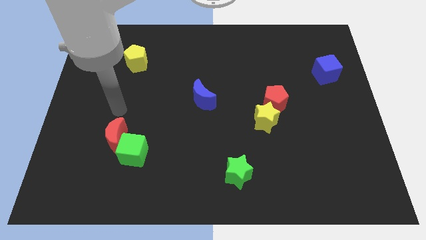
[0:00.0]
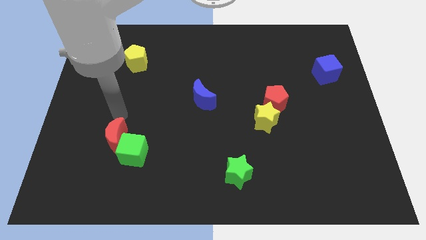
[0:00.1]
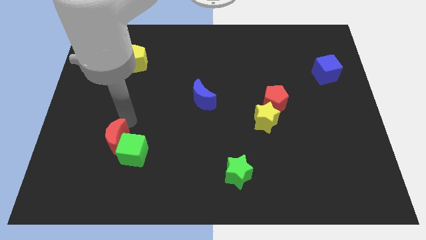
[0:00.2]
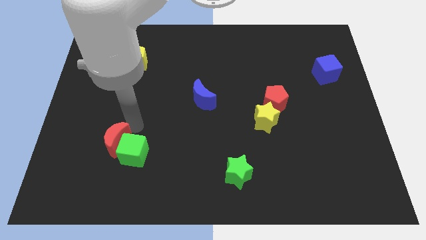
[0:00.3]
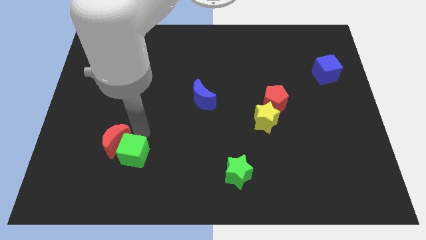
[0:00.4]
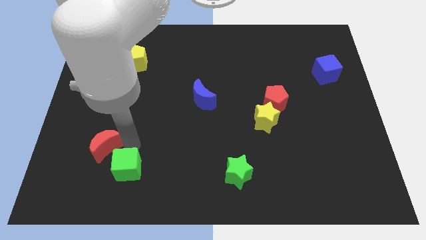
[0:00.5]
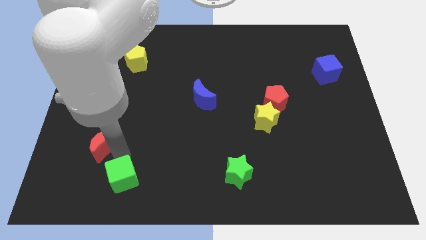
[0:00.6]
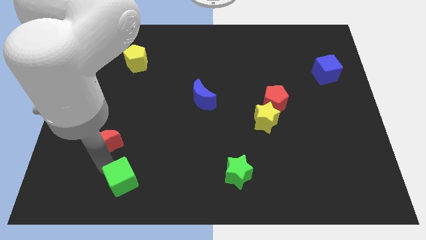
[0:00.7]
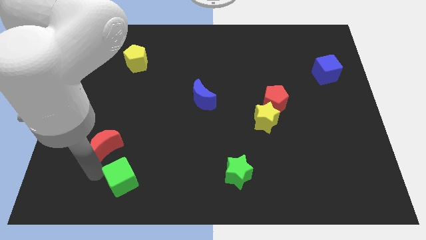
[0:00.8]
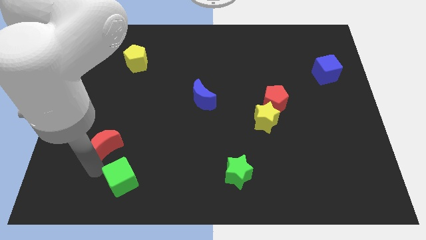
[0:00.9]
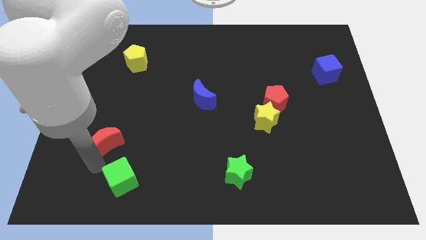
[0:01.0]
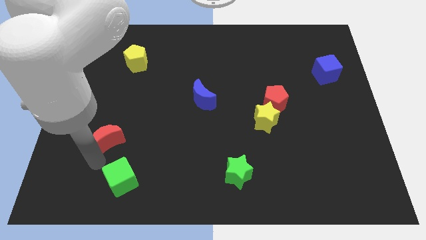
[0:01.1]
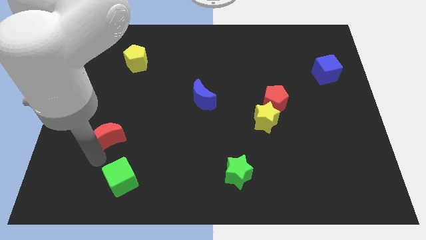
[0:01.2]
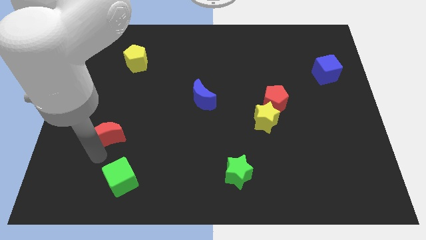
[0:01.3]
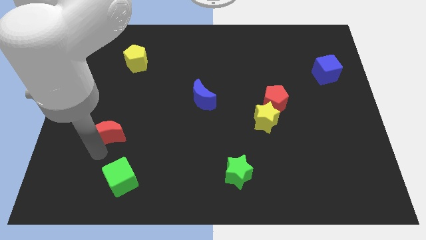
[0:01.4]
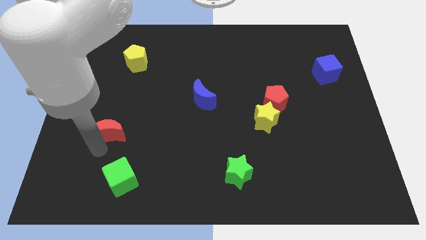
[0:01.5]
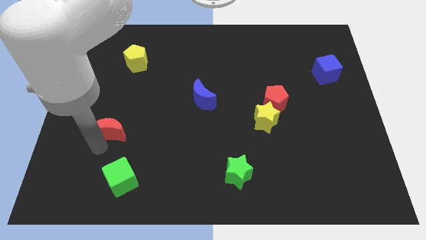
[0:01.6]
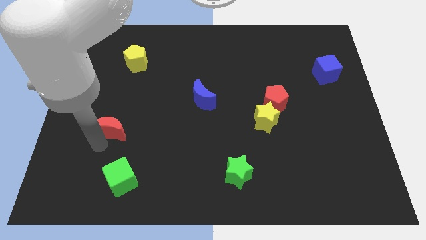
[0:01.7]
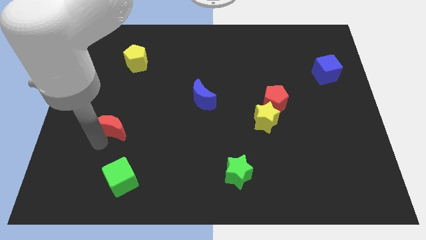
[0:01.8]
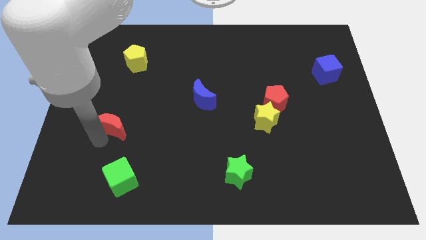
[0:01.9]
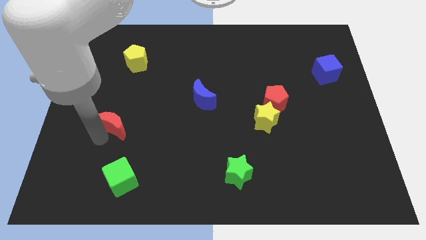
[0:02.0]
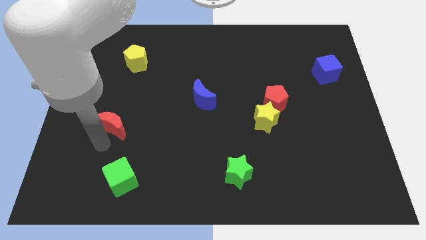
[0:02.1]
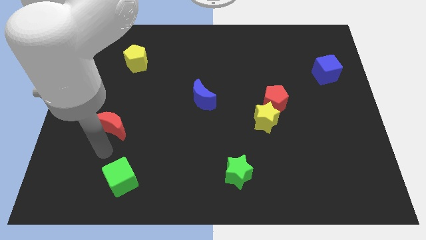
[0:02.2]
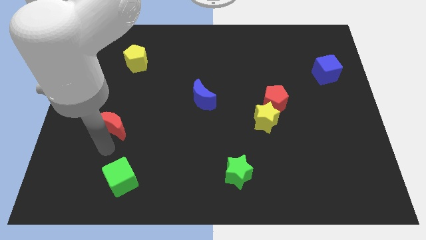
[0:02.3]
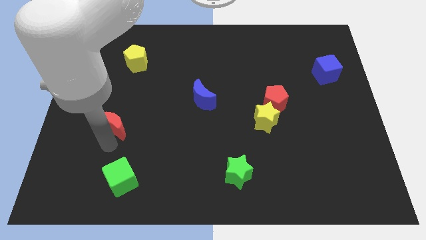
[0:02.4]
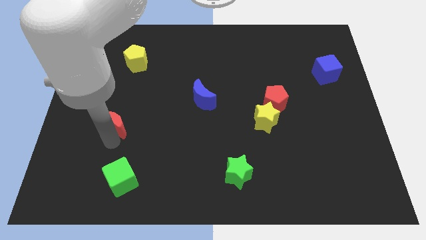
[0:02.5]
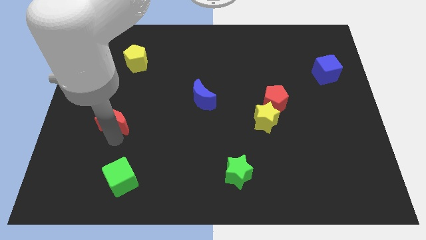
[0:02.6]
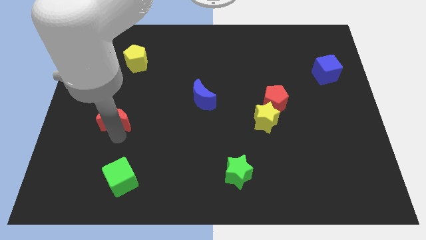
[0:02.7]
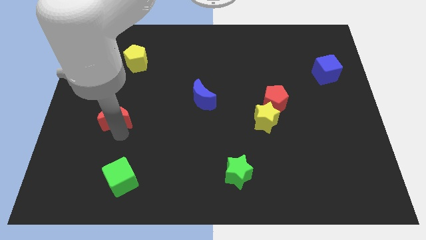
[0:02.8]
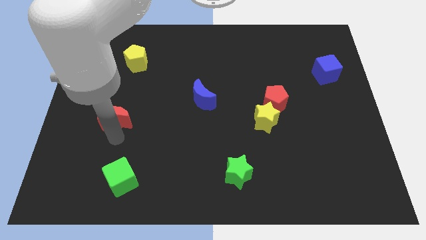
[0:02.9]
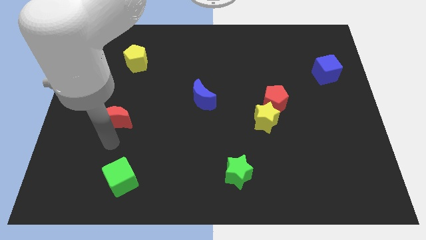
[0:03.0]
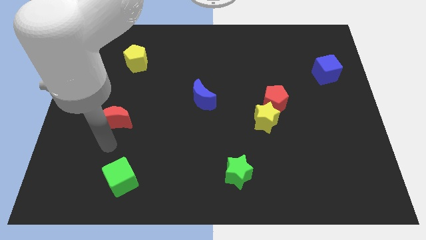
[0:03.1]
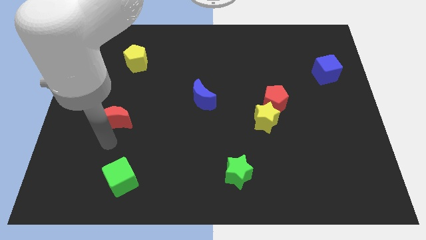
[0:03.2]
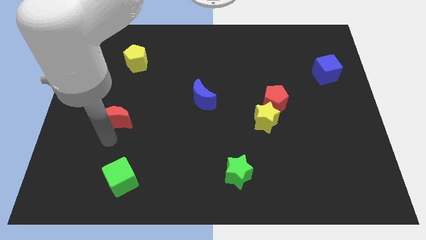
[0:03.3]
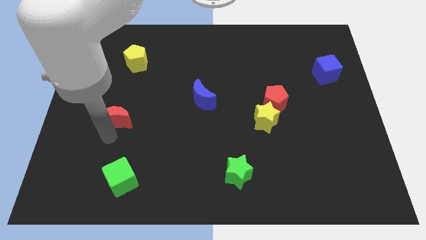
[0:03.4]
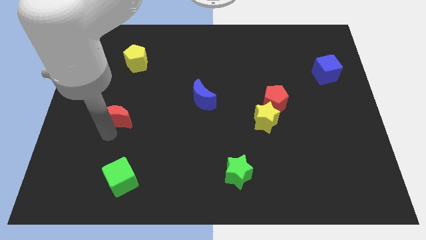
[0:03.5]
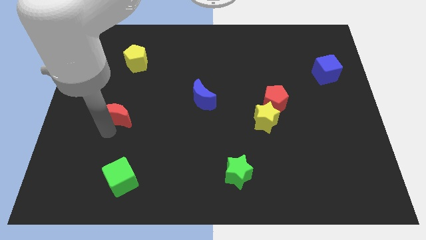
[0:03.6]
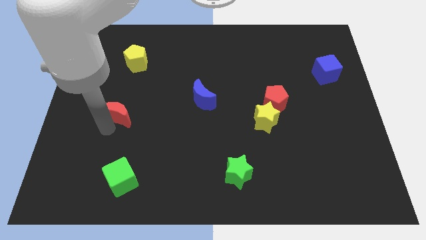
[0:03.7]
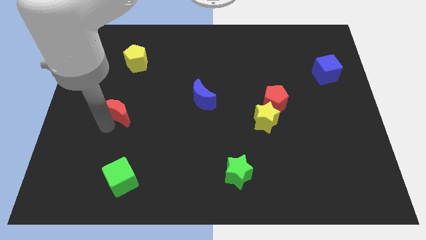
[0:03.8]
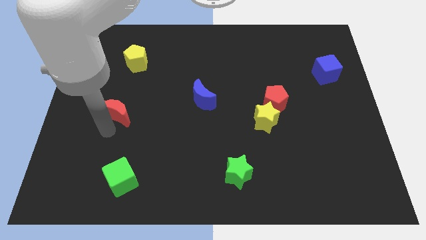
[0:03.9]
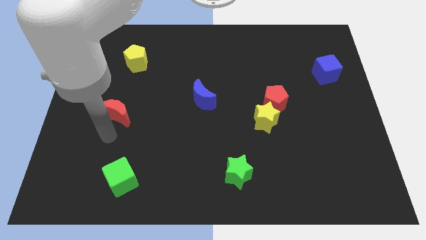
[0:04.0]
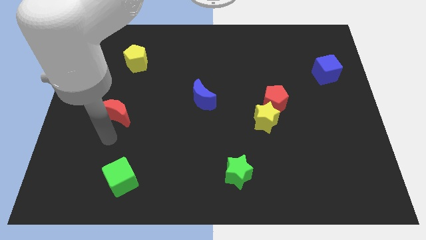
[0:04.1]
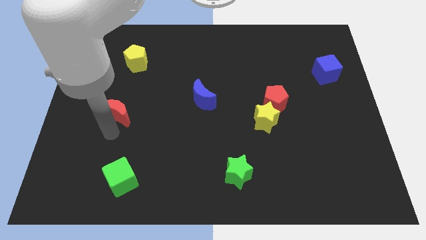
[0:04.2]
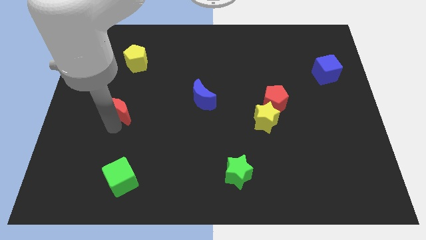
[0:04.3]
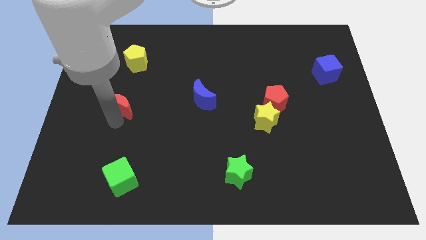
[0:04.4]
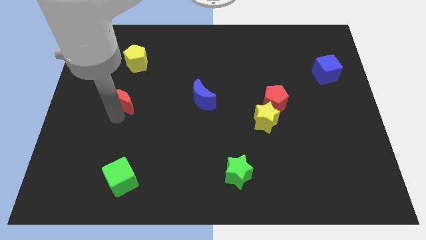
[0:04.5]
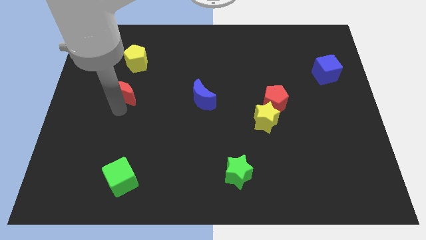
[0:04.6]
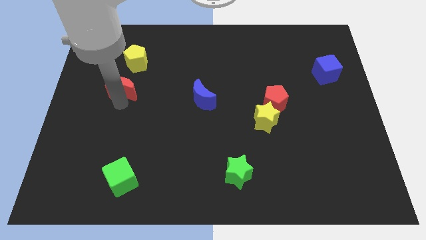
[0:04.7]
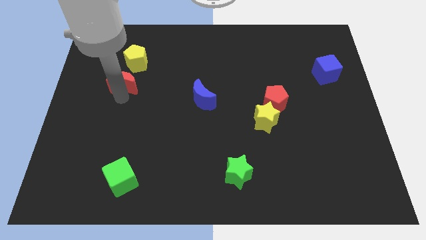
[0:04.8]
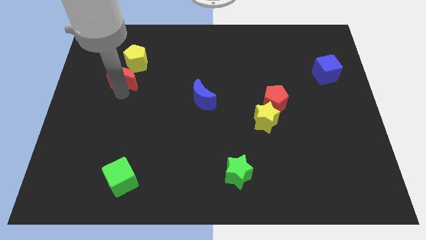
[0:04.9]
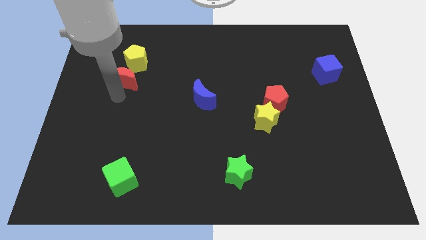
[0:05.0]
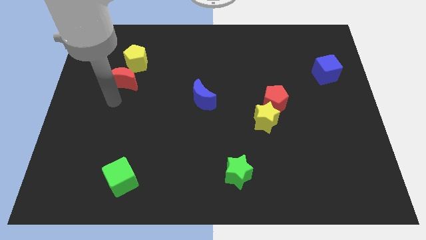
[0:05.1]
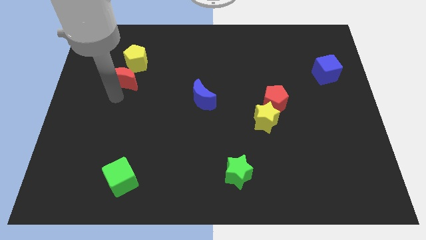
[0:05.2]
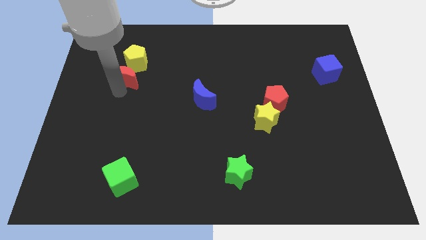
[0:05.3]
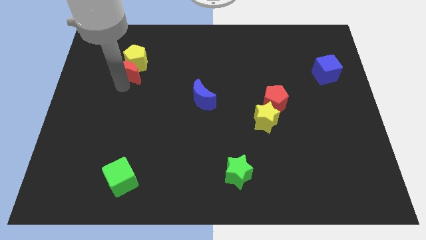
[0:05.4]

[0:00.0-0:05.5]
put the red moon next to the yellow pentagon

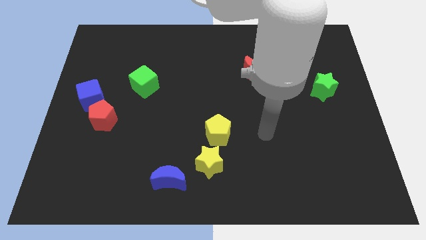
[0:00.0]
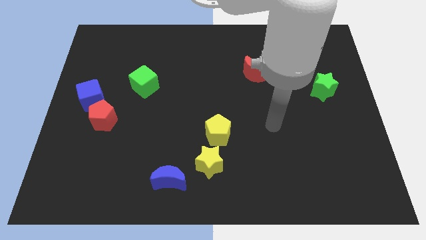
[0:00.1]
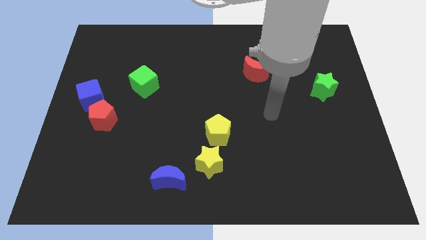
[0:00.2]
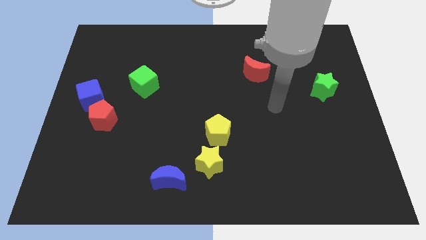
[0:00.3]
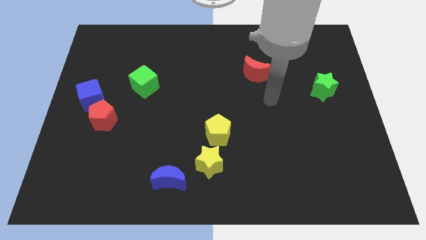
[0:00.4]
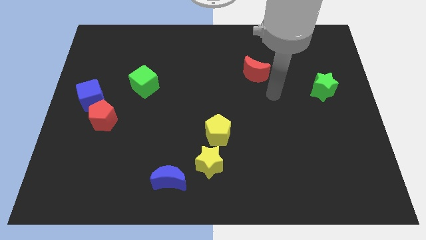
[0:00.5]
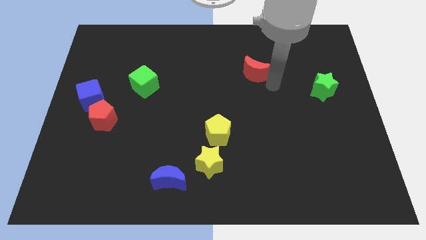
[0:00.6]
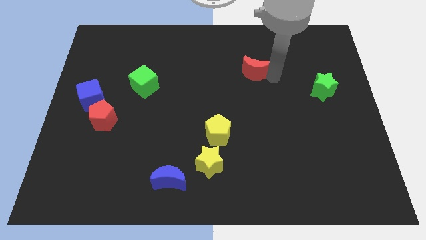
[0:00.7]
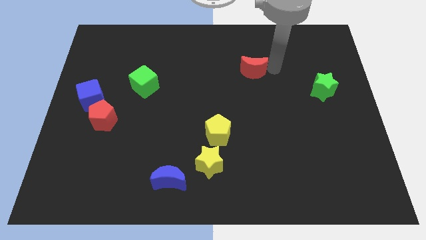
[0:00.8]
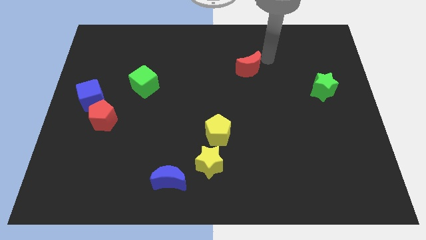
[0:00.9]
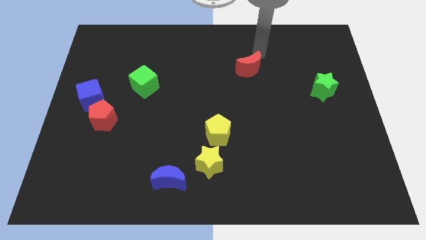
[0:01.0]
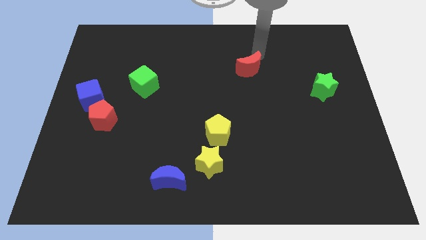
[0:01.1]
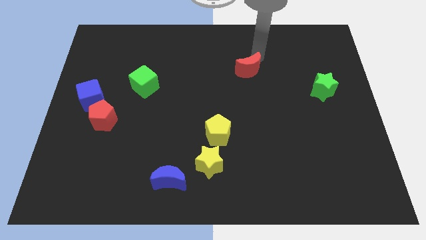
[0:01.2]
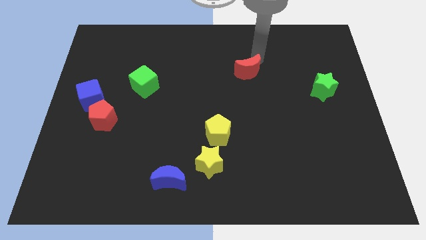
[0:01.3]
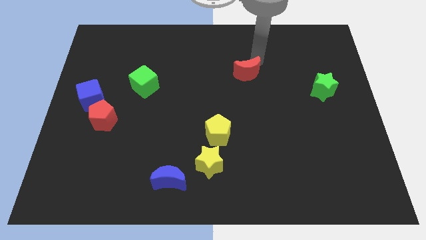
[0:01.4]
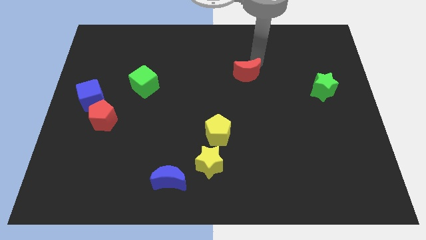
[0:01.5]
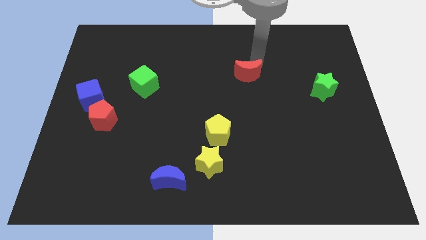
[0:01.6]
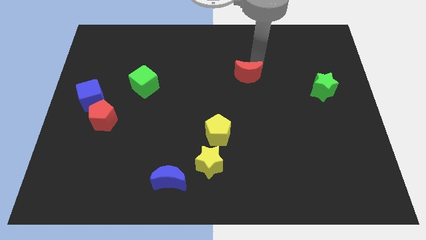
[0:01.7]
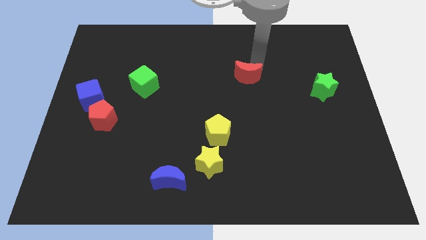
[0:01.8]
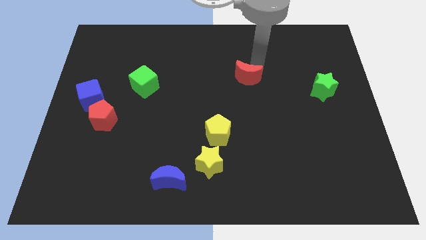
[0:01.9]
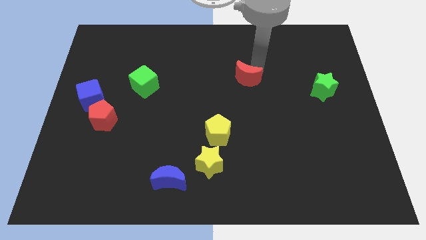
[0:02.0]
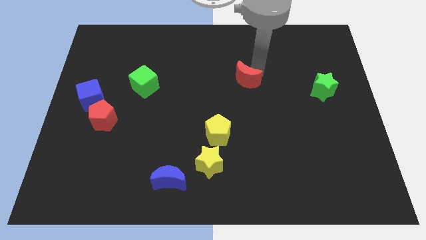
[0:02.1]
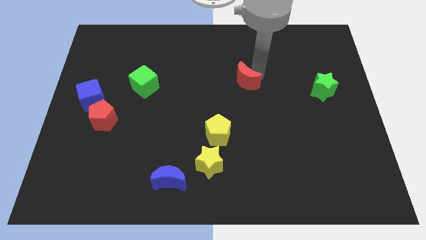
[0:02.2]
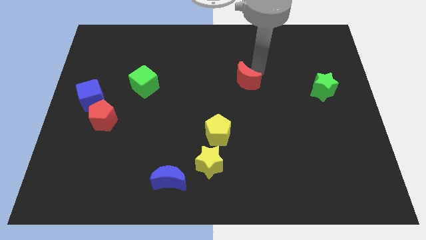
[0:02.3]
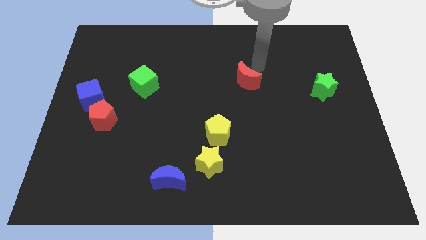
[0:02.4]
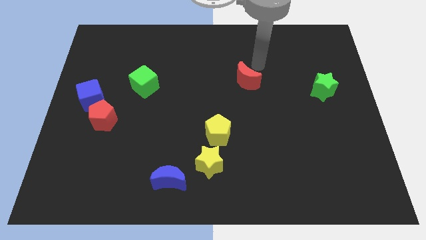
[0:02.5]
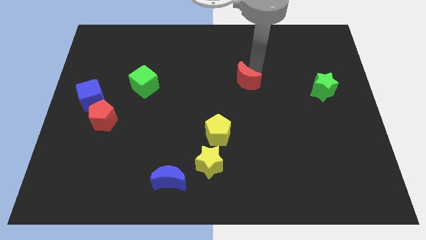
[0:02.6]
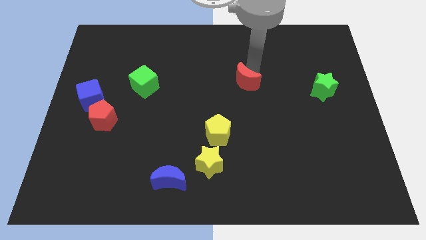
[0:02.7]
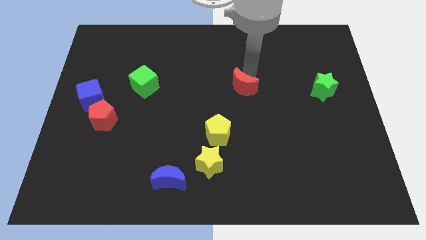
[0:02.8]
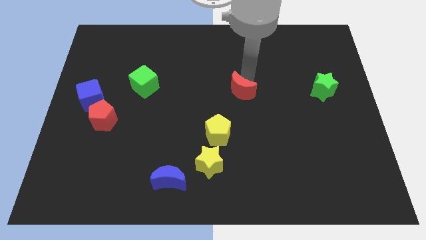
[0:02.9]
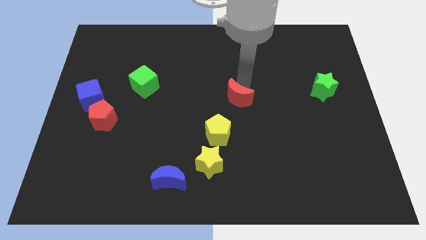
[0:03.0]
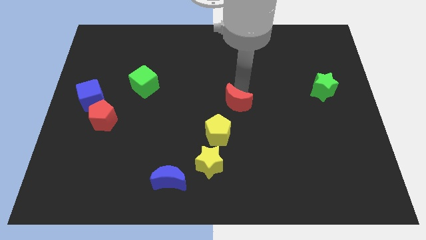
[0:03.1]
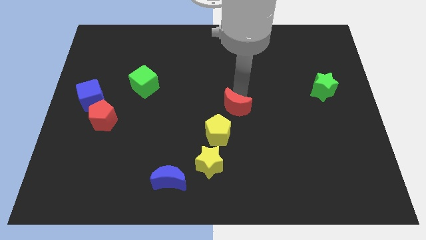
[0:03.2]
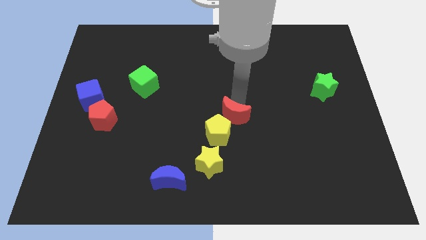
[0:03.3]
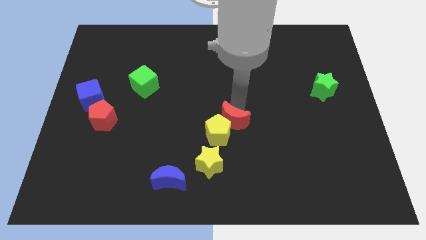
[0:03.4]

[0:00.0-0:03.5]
push the red moon to the yellow pentagon
